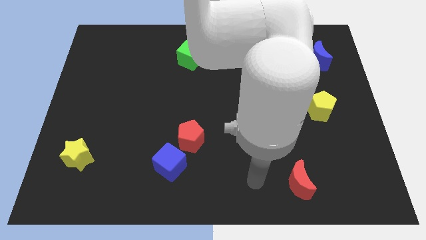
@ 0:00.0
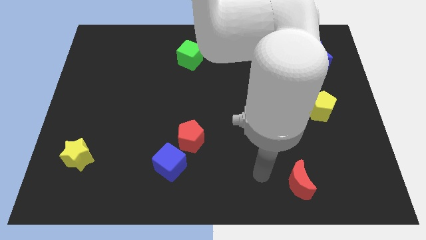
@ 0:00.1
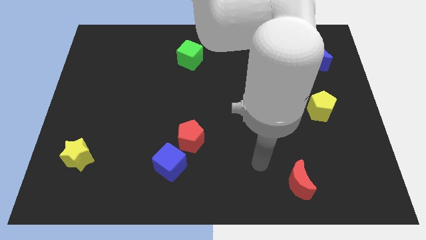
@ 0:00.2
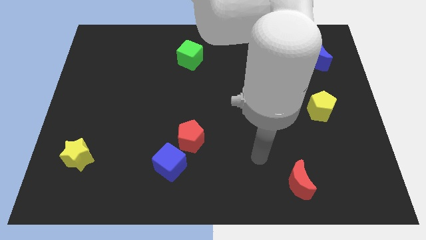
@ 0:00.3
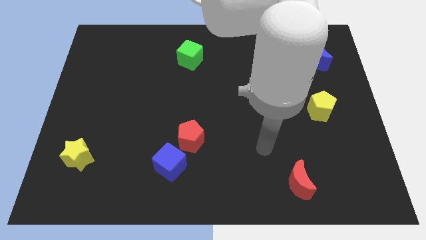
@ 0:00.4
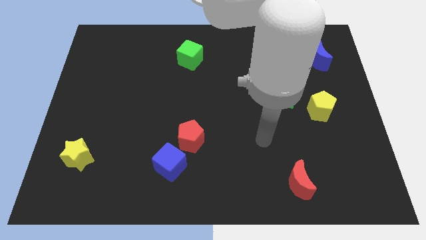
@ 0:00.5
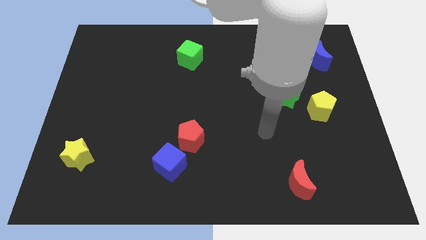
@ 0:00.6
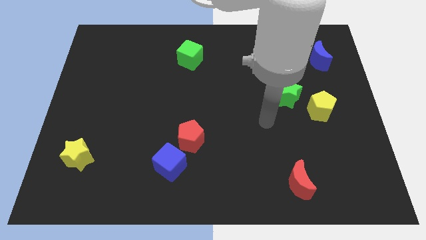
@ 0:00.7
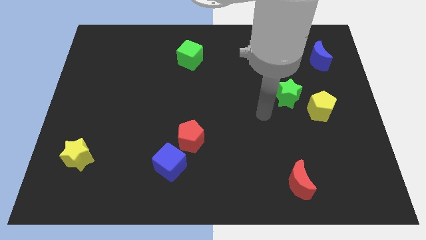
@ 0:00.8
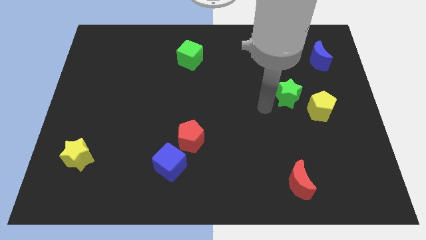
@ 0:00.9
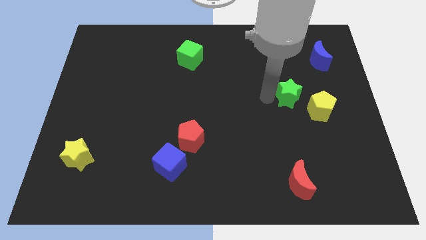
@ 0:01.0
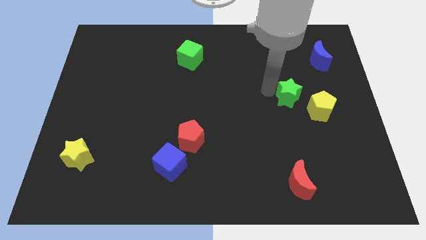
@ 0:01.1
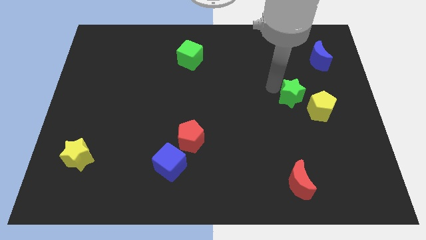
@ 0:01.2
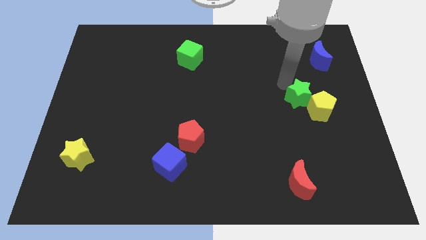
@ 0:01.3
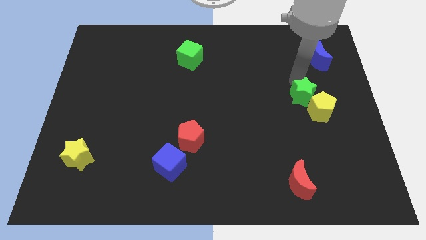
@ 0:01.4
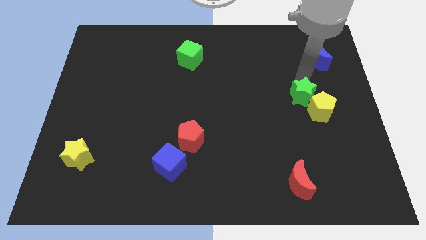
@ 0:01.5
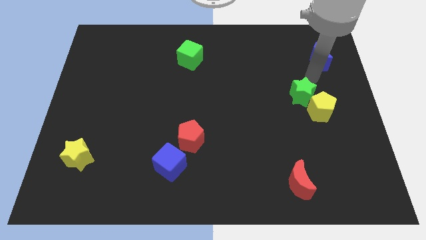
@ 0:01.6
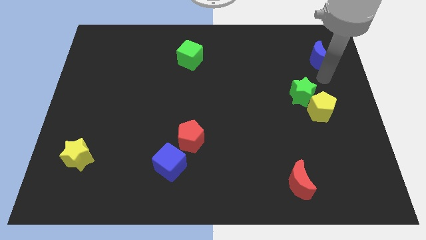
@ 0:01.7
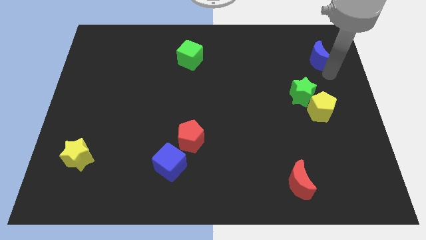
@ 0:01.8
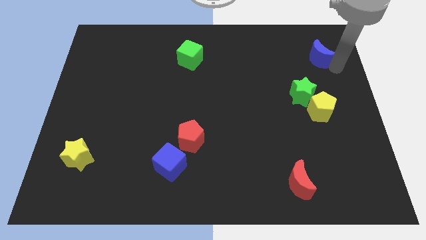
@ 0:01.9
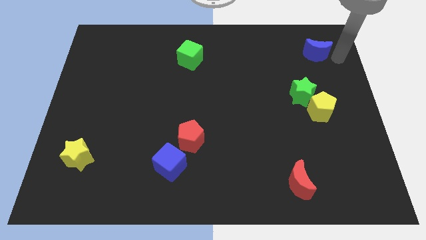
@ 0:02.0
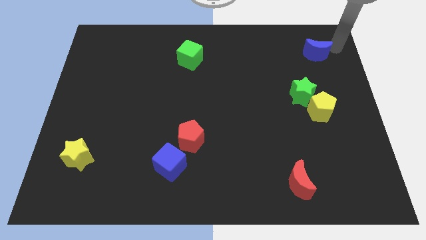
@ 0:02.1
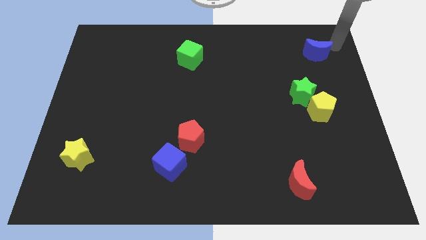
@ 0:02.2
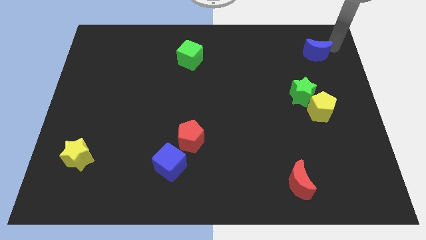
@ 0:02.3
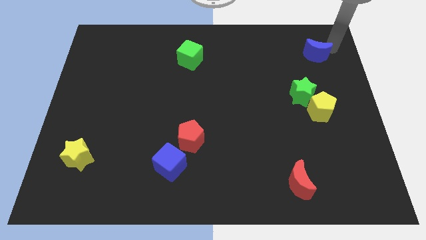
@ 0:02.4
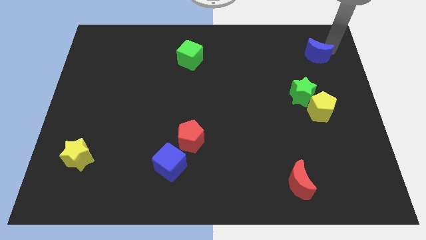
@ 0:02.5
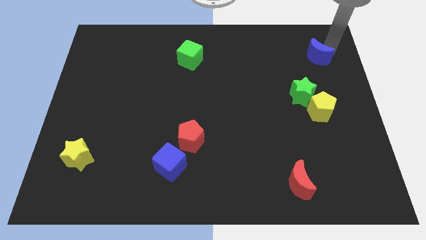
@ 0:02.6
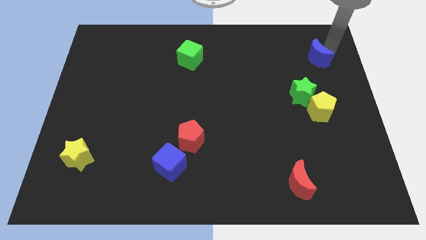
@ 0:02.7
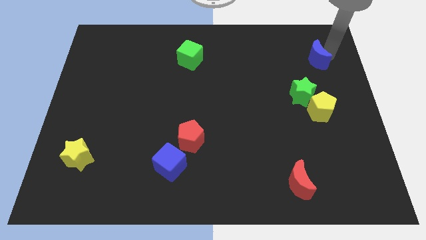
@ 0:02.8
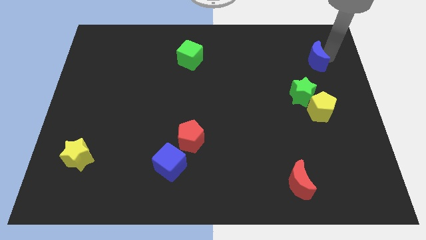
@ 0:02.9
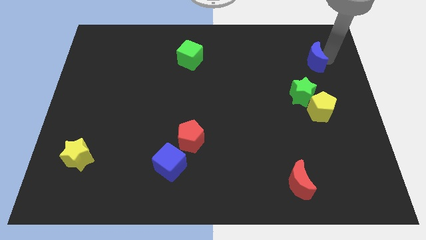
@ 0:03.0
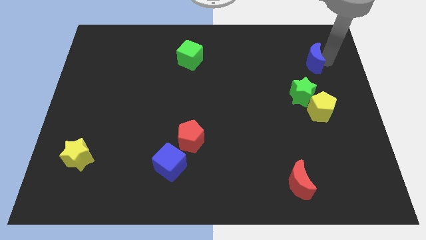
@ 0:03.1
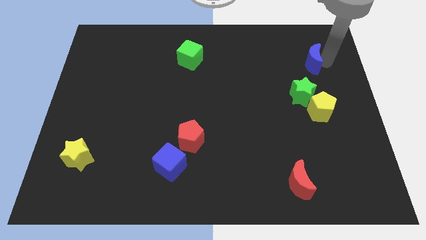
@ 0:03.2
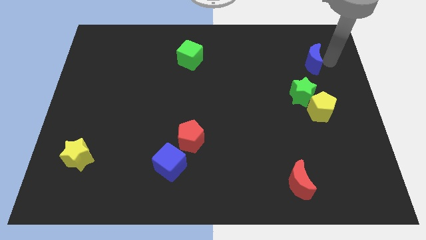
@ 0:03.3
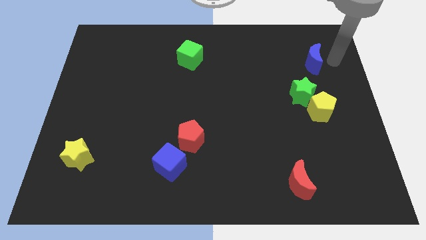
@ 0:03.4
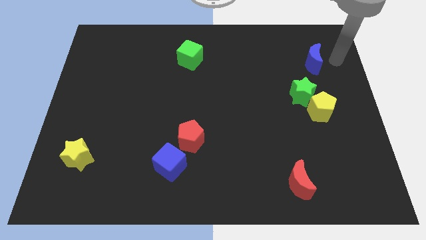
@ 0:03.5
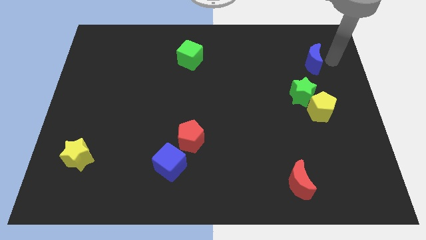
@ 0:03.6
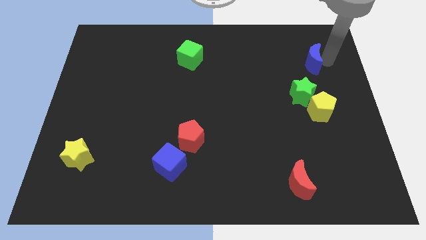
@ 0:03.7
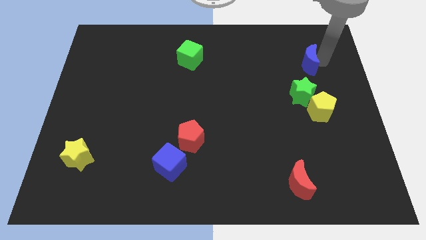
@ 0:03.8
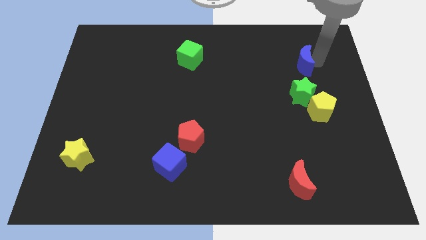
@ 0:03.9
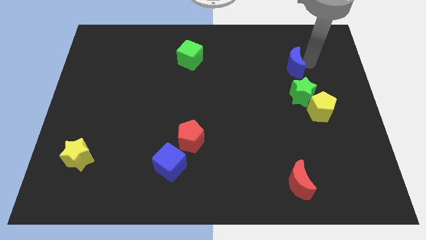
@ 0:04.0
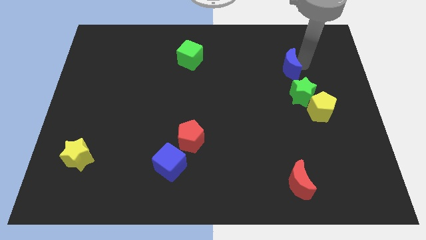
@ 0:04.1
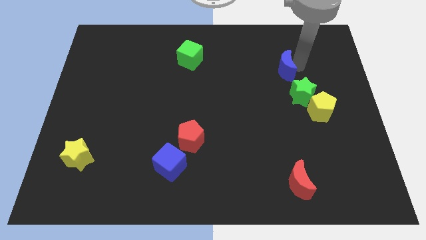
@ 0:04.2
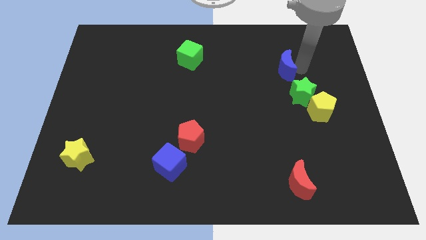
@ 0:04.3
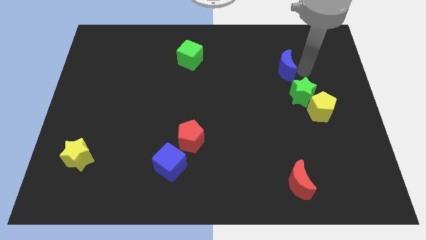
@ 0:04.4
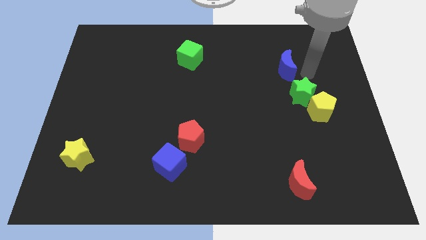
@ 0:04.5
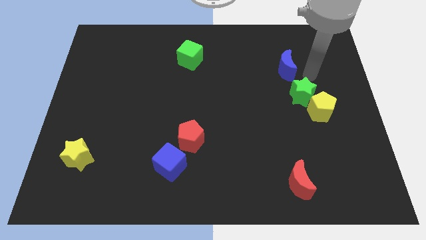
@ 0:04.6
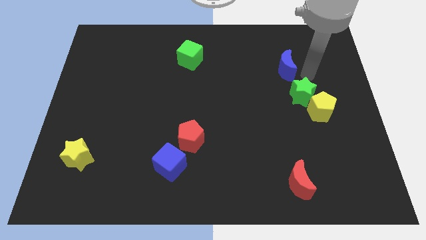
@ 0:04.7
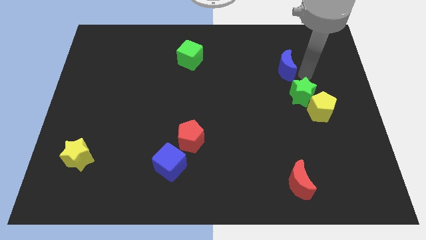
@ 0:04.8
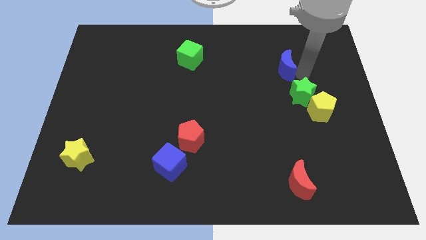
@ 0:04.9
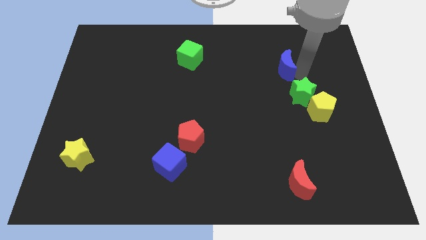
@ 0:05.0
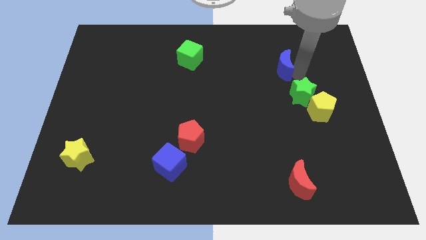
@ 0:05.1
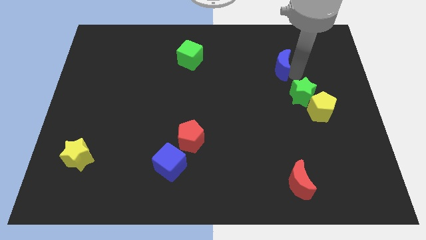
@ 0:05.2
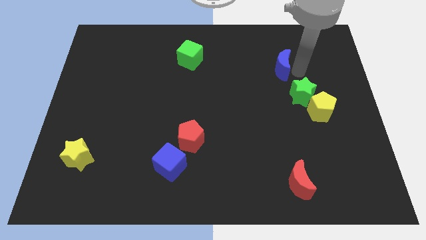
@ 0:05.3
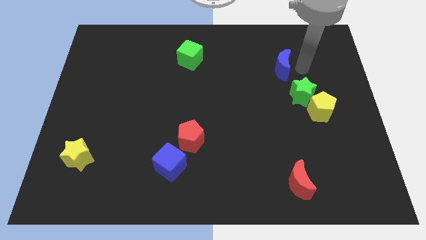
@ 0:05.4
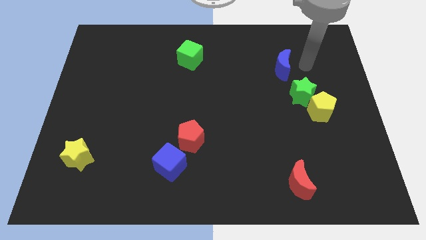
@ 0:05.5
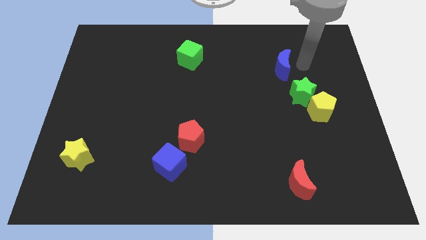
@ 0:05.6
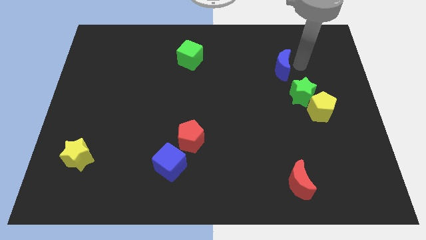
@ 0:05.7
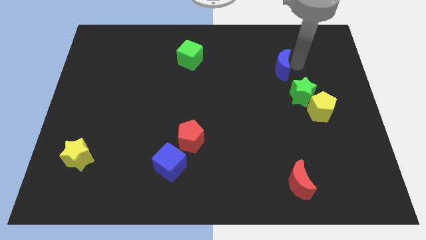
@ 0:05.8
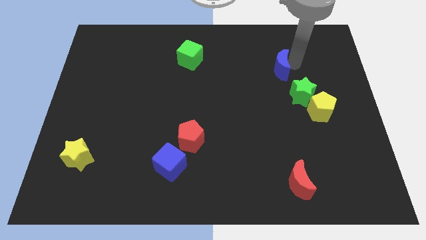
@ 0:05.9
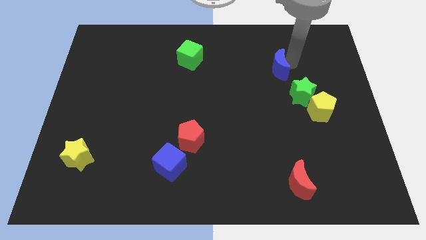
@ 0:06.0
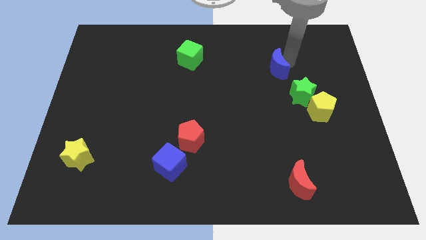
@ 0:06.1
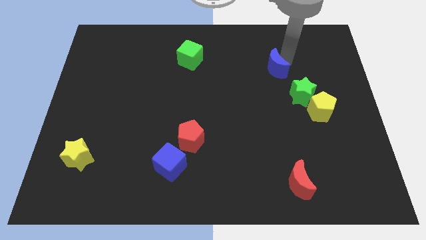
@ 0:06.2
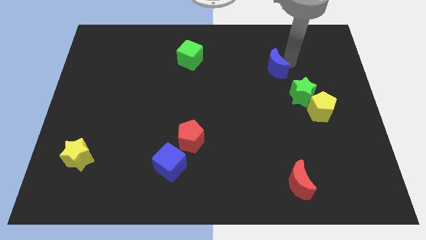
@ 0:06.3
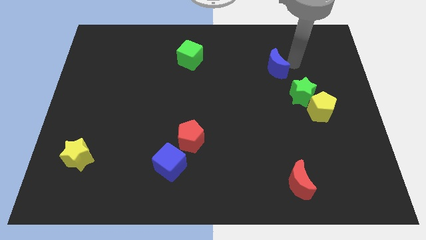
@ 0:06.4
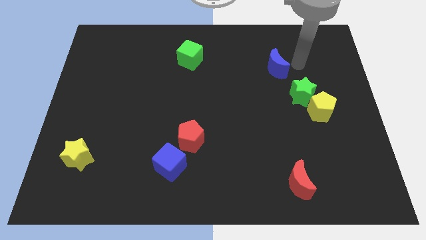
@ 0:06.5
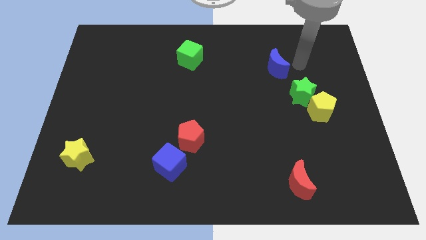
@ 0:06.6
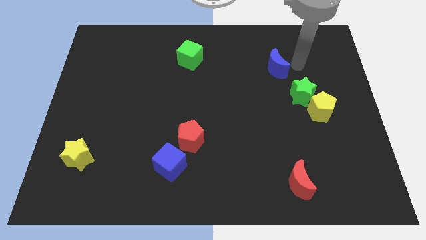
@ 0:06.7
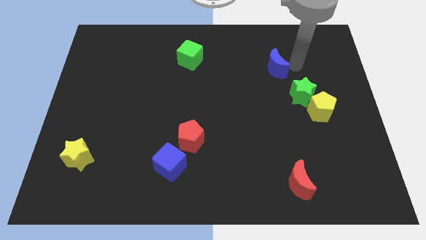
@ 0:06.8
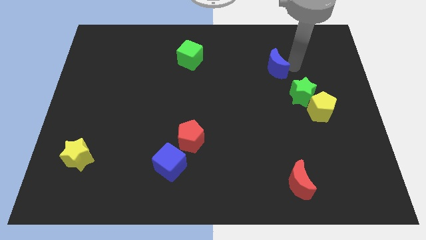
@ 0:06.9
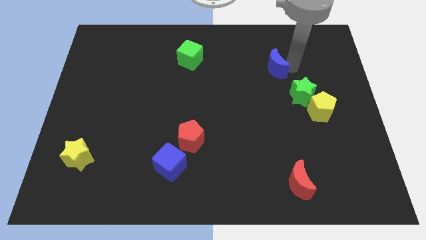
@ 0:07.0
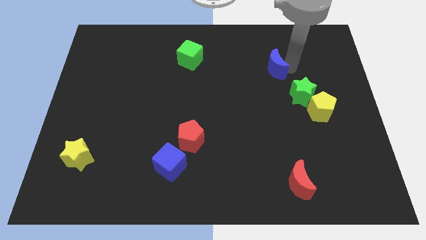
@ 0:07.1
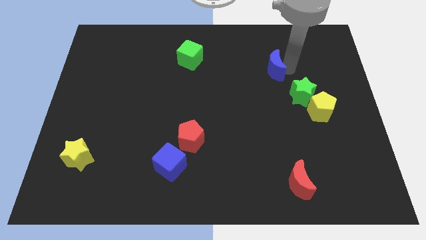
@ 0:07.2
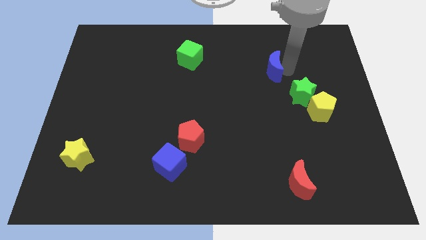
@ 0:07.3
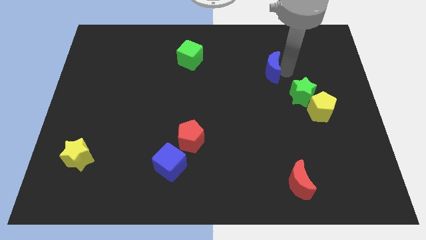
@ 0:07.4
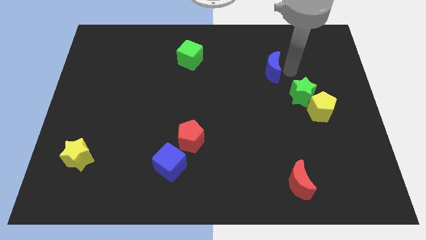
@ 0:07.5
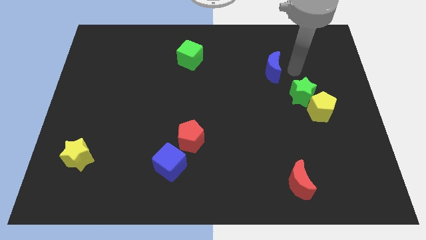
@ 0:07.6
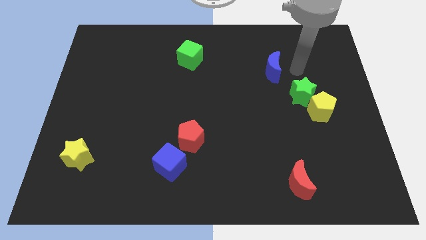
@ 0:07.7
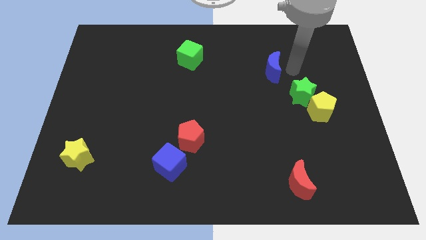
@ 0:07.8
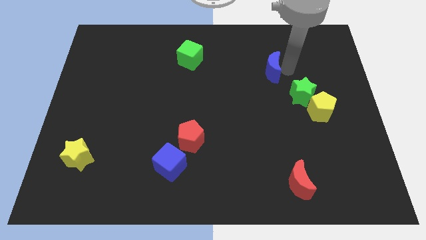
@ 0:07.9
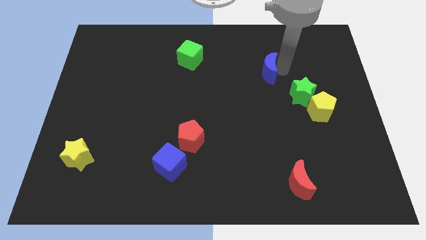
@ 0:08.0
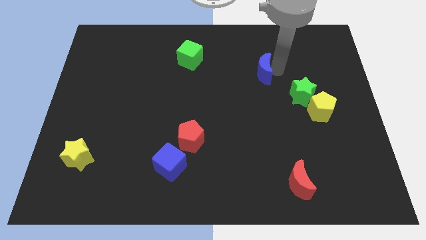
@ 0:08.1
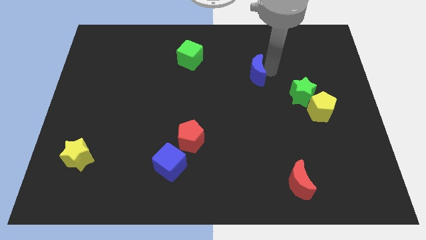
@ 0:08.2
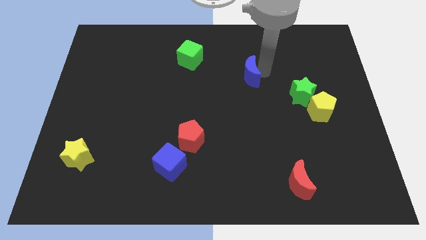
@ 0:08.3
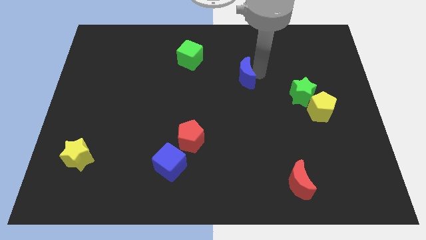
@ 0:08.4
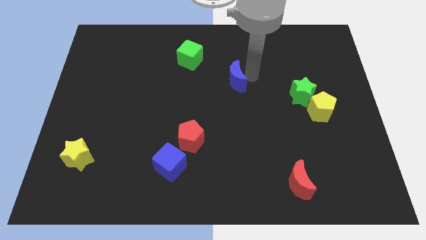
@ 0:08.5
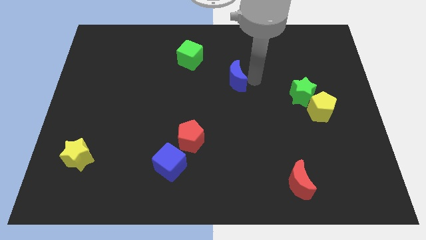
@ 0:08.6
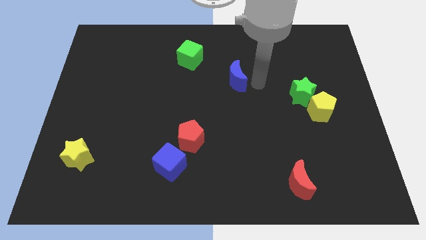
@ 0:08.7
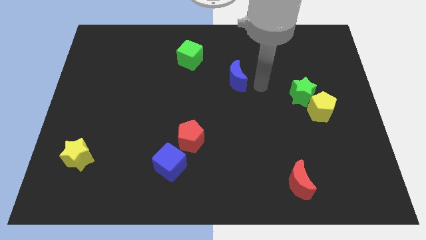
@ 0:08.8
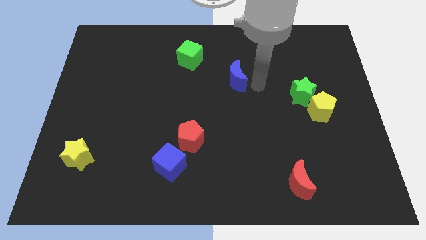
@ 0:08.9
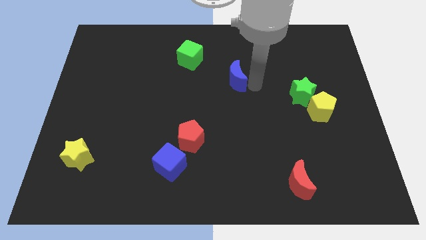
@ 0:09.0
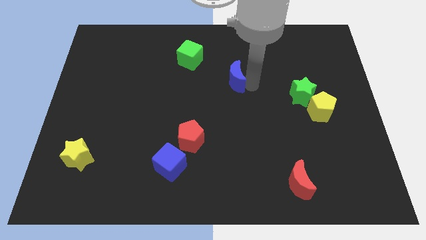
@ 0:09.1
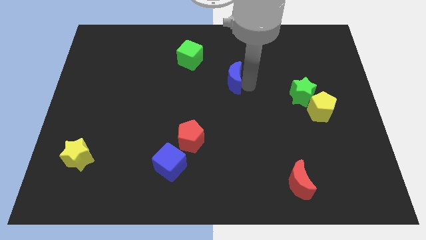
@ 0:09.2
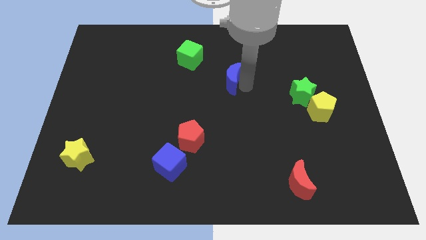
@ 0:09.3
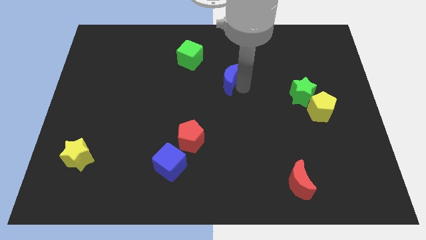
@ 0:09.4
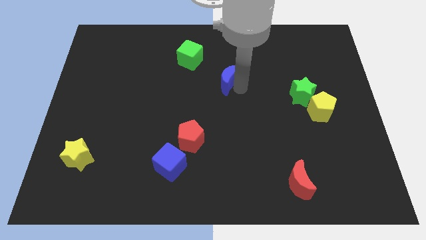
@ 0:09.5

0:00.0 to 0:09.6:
put the blue moon to the bottom right side of the green cube
